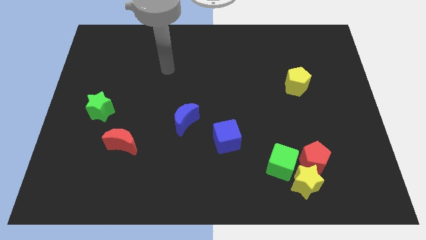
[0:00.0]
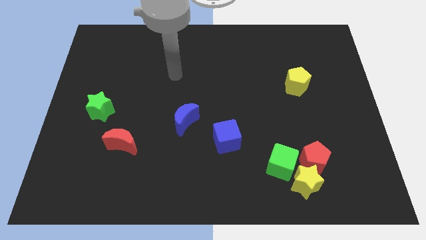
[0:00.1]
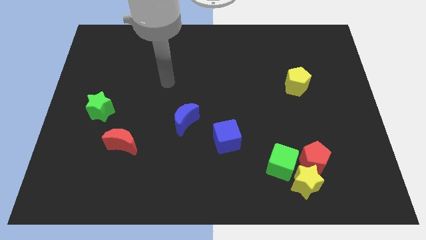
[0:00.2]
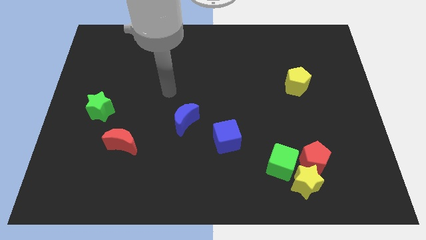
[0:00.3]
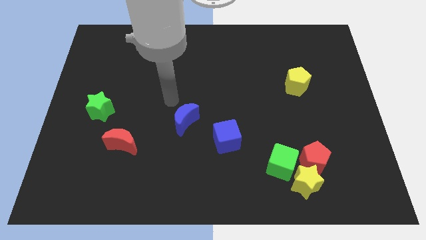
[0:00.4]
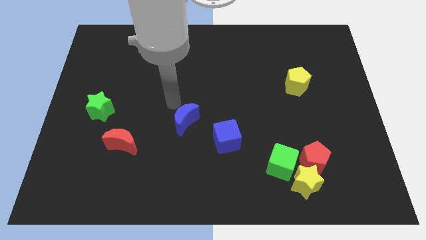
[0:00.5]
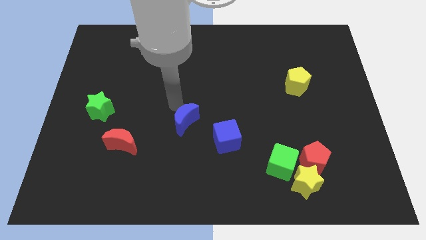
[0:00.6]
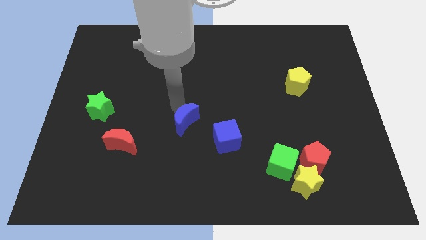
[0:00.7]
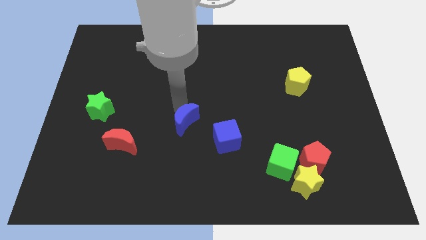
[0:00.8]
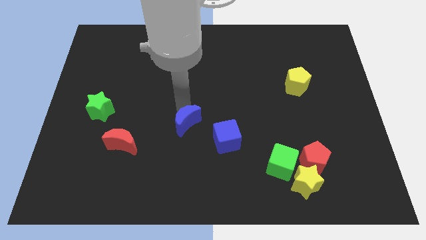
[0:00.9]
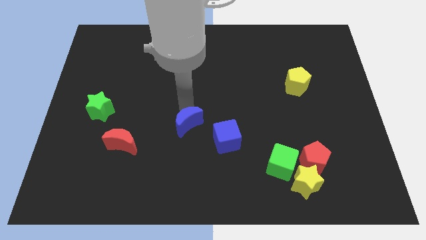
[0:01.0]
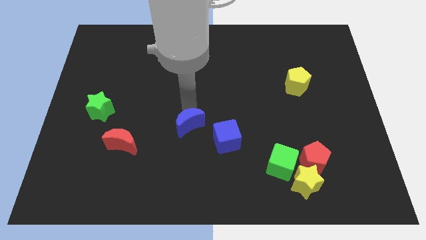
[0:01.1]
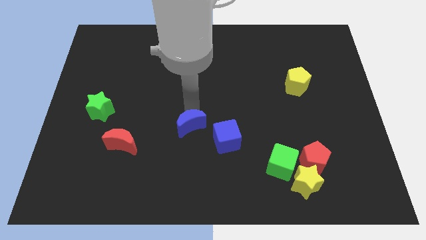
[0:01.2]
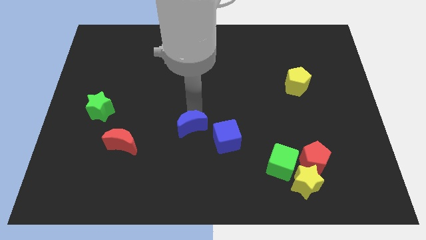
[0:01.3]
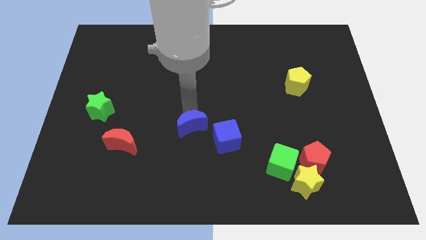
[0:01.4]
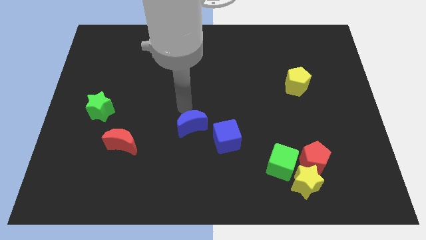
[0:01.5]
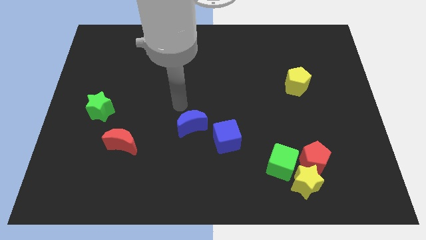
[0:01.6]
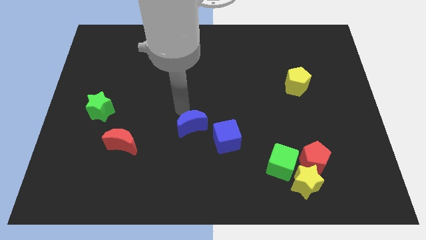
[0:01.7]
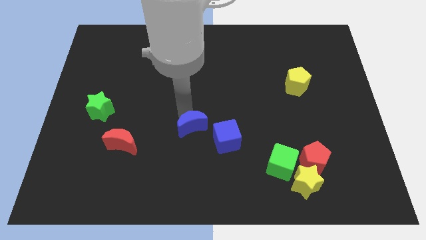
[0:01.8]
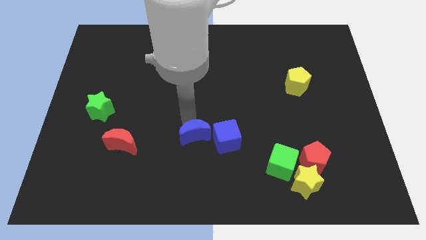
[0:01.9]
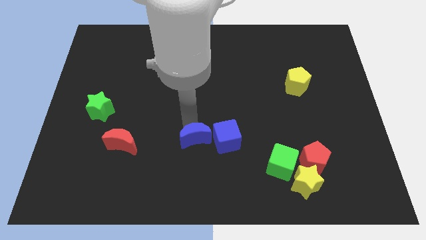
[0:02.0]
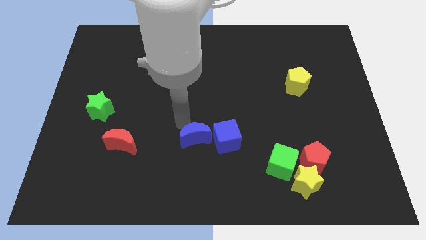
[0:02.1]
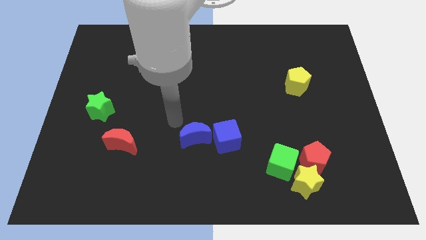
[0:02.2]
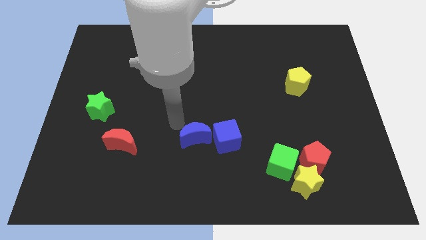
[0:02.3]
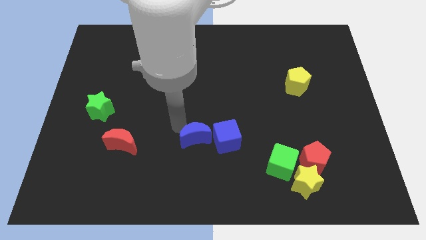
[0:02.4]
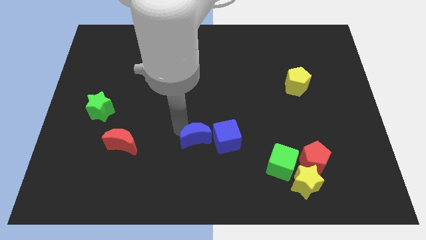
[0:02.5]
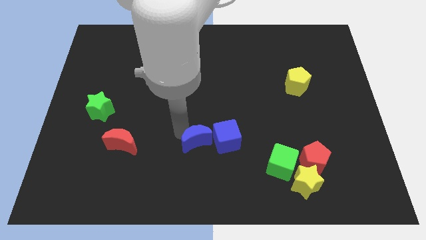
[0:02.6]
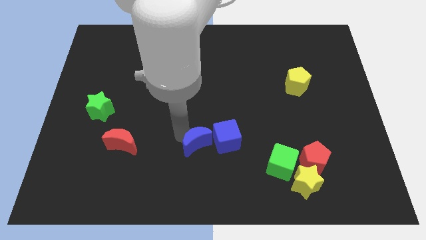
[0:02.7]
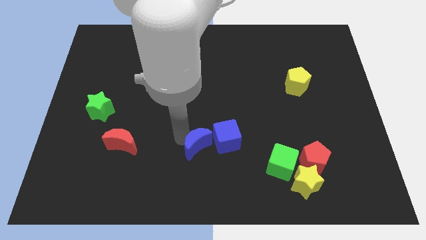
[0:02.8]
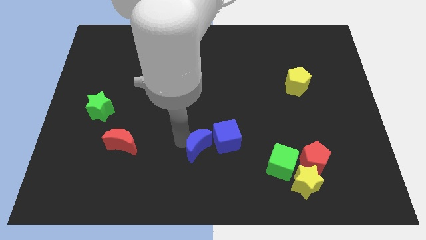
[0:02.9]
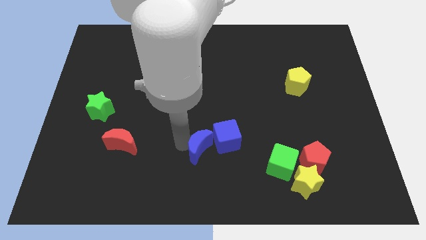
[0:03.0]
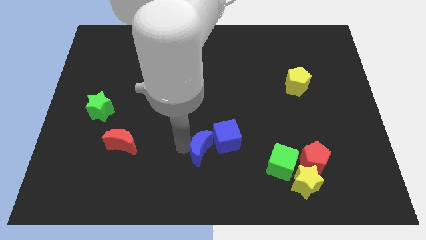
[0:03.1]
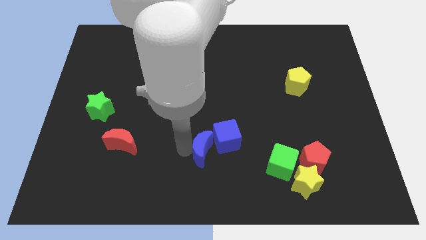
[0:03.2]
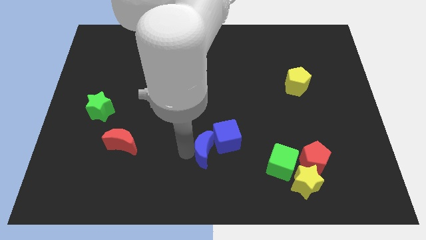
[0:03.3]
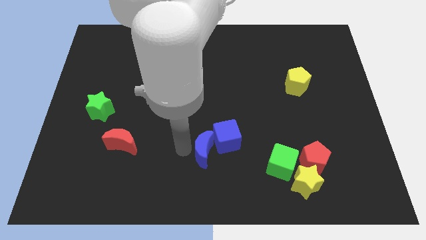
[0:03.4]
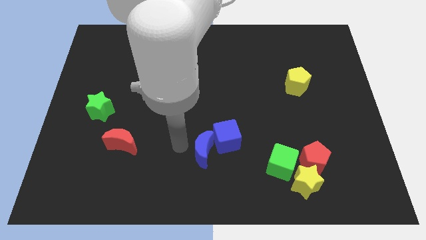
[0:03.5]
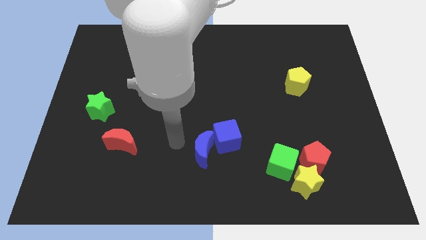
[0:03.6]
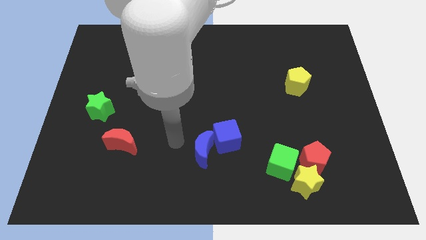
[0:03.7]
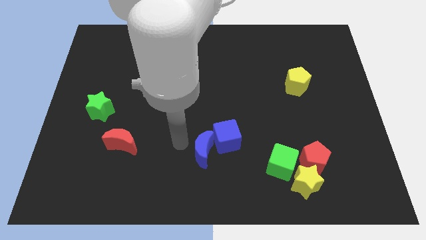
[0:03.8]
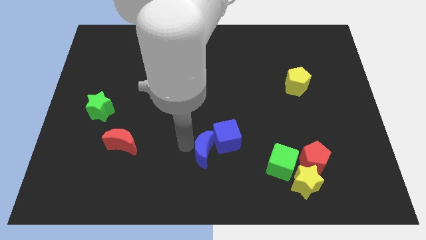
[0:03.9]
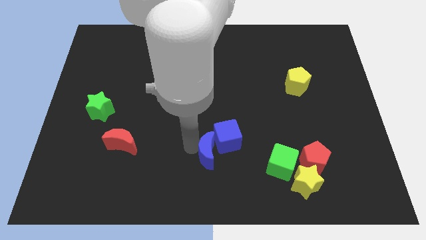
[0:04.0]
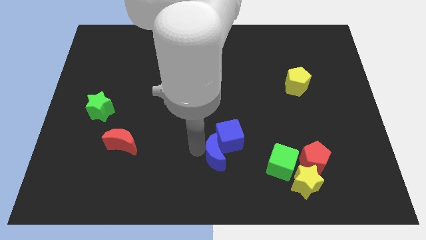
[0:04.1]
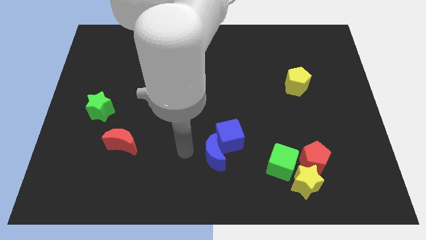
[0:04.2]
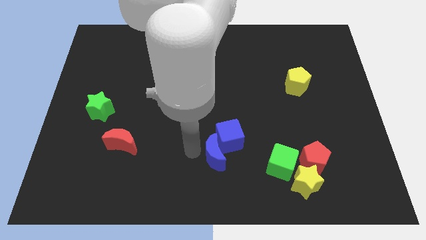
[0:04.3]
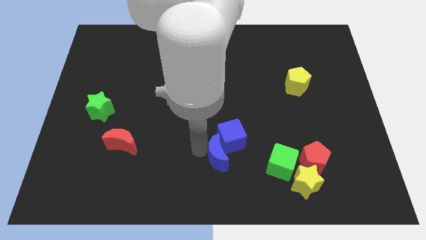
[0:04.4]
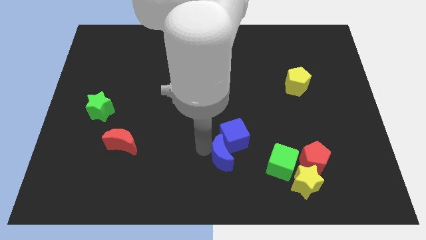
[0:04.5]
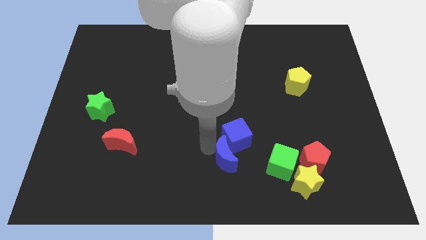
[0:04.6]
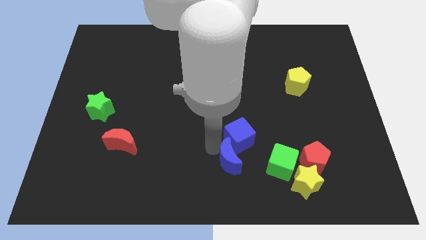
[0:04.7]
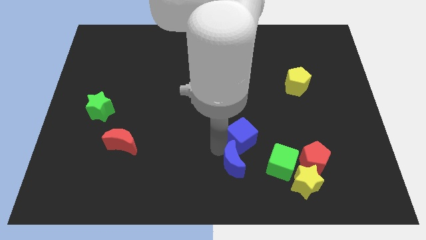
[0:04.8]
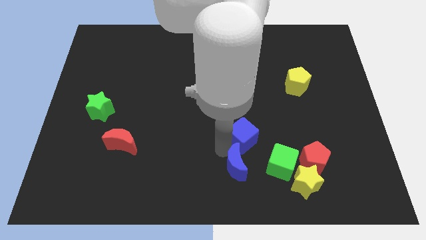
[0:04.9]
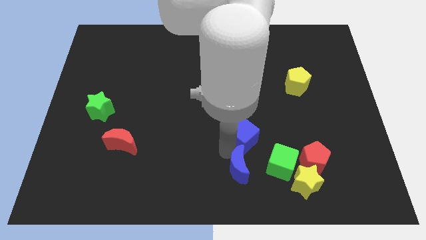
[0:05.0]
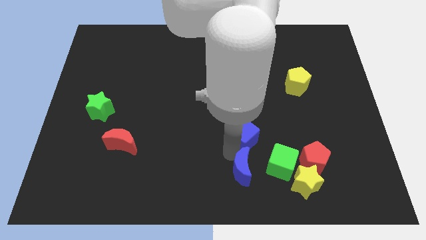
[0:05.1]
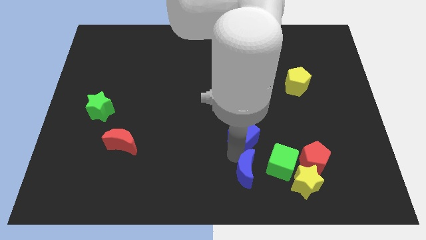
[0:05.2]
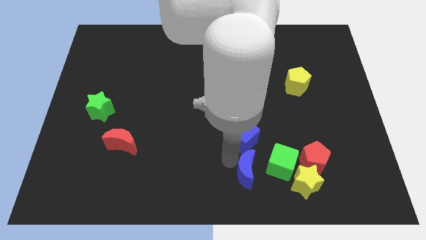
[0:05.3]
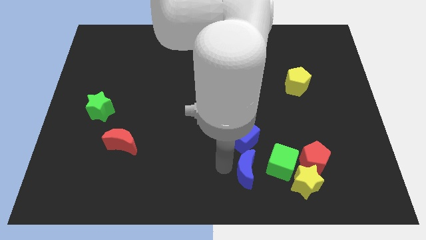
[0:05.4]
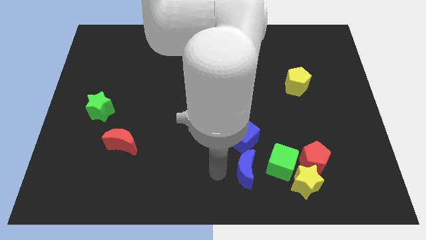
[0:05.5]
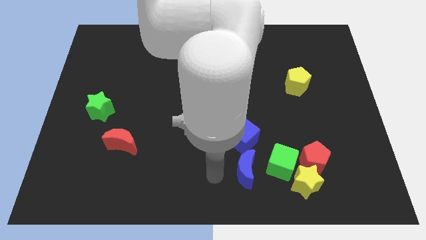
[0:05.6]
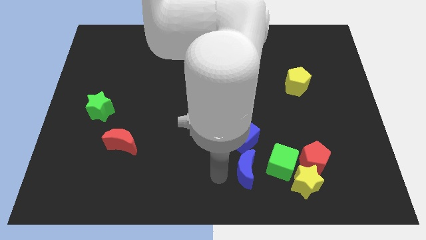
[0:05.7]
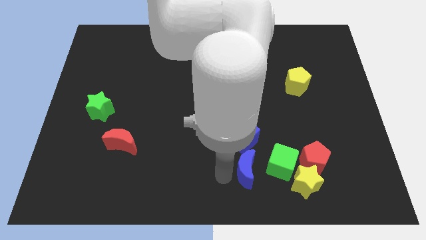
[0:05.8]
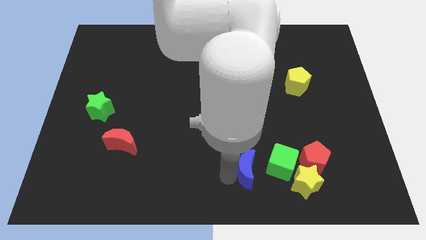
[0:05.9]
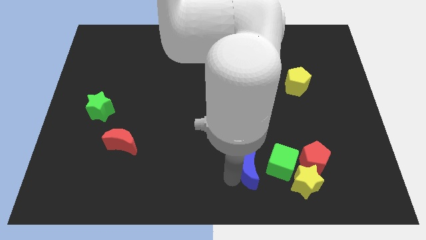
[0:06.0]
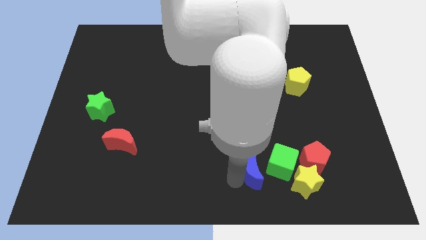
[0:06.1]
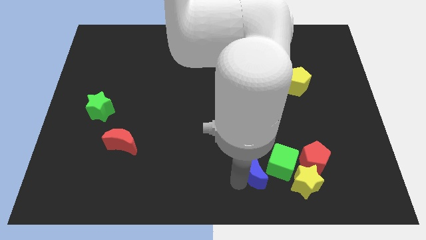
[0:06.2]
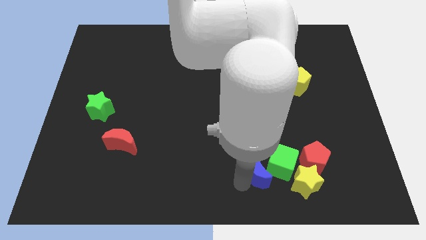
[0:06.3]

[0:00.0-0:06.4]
put the blue moon next to the green cube

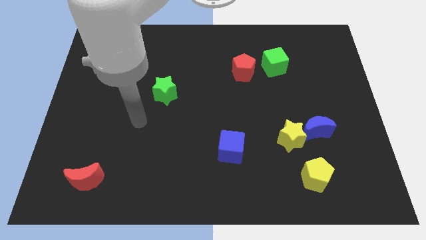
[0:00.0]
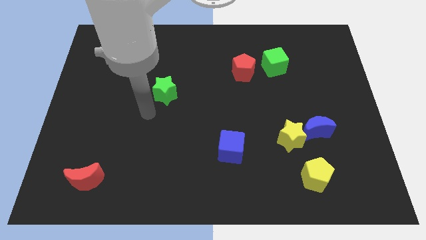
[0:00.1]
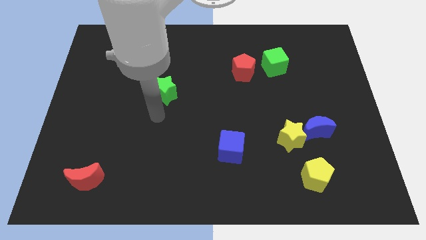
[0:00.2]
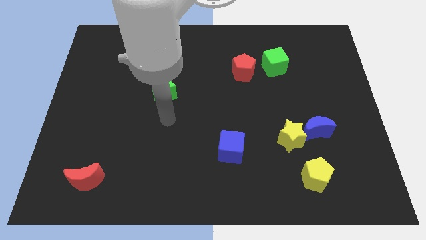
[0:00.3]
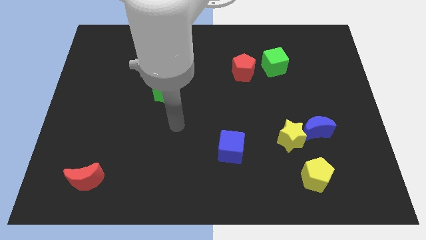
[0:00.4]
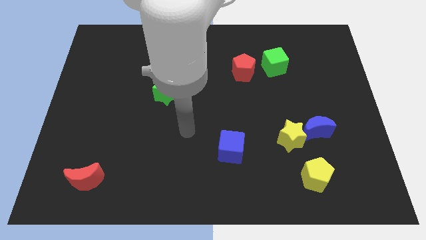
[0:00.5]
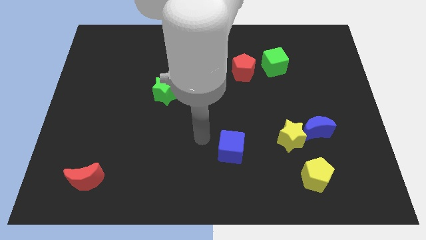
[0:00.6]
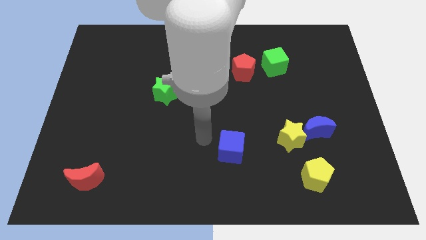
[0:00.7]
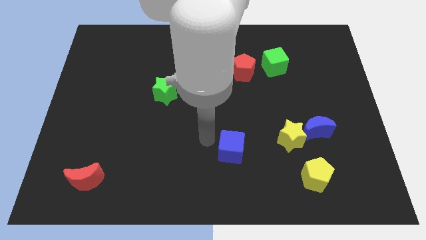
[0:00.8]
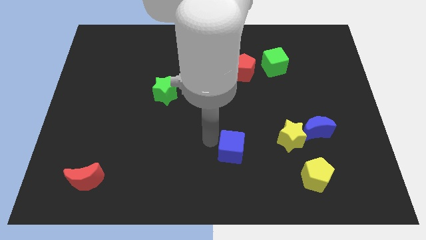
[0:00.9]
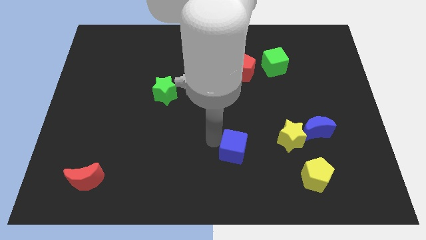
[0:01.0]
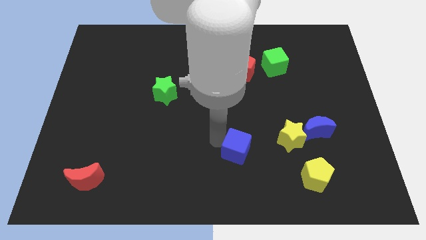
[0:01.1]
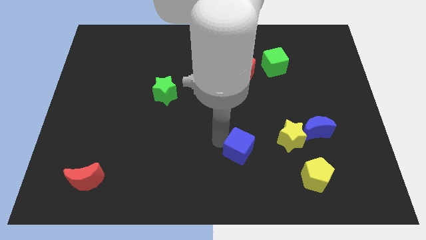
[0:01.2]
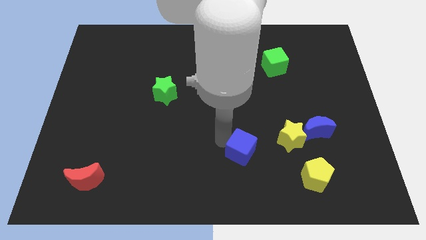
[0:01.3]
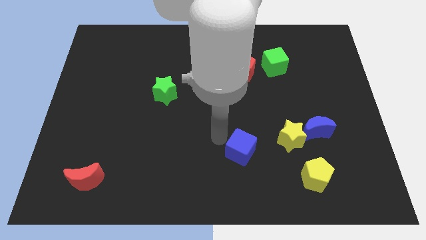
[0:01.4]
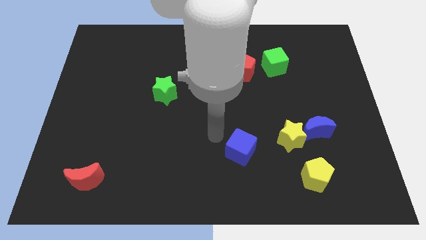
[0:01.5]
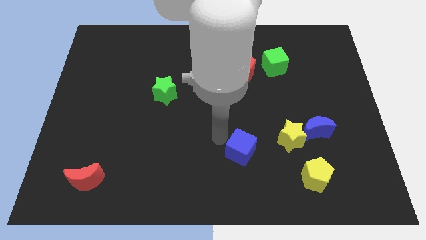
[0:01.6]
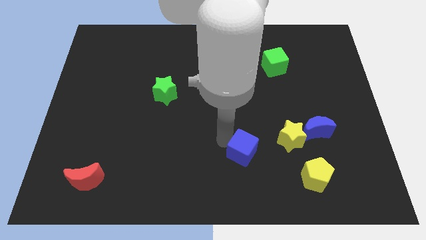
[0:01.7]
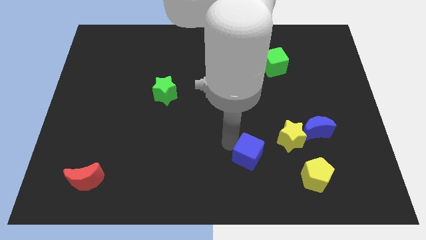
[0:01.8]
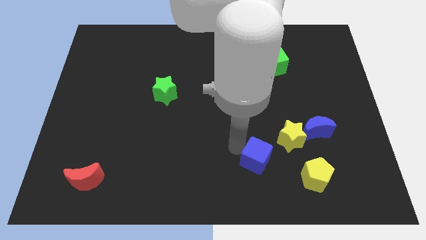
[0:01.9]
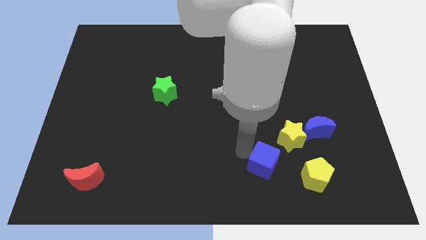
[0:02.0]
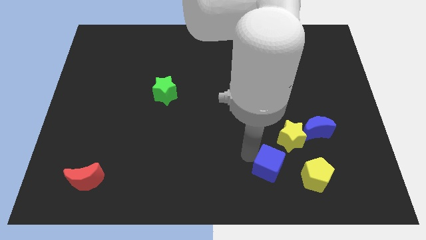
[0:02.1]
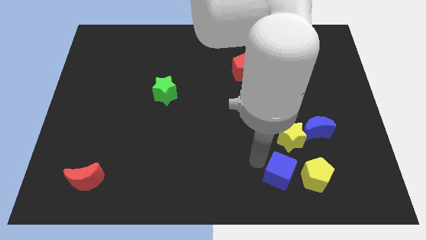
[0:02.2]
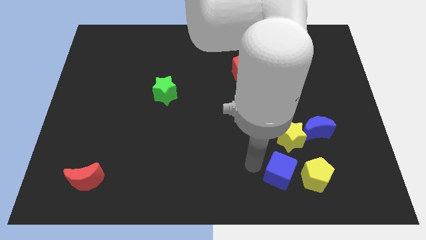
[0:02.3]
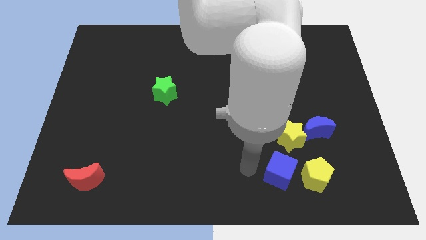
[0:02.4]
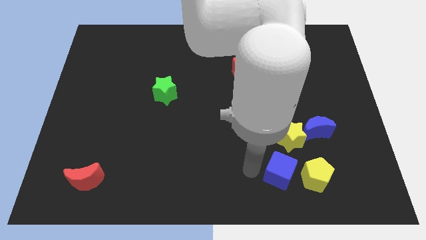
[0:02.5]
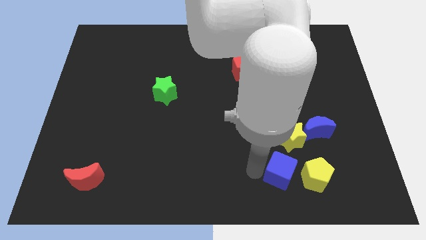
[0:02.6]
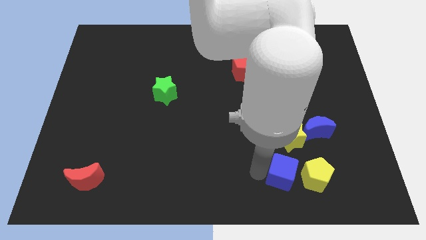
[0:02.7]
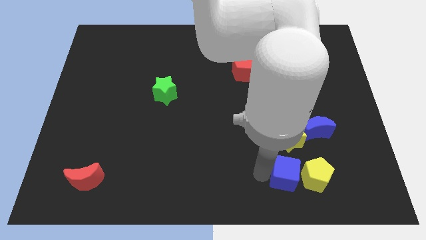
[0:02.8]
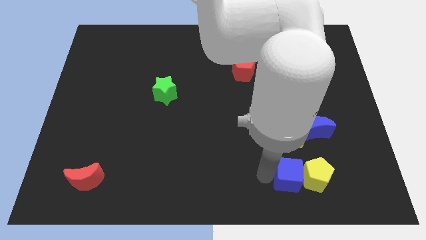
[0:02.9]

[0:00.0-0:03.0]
move the blue cube next to the yellow pentagon
